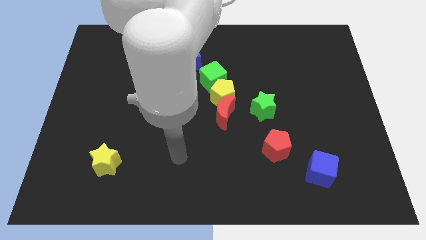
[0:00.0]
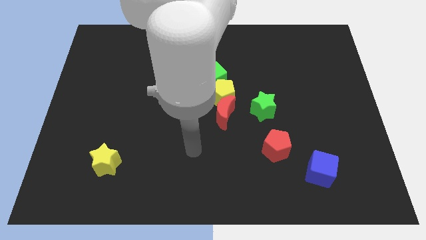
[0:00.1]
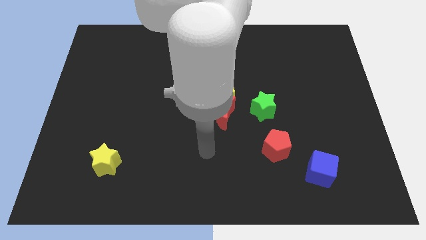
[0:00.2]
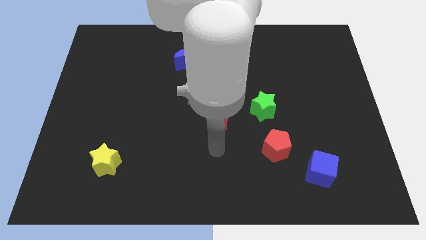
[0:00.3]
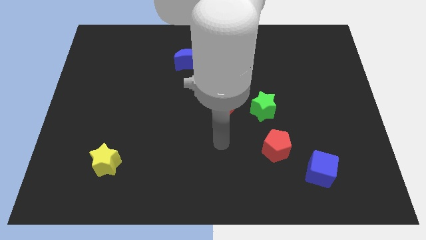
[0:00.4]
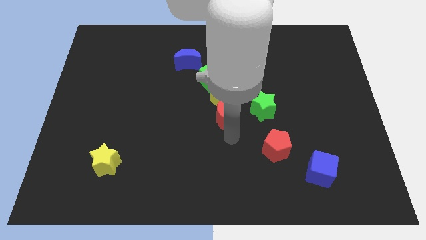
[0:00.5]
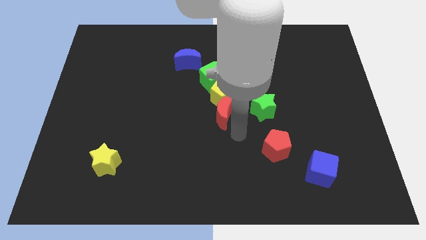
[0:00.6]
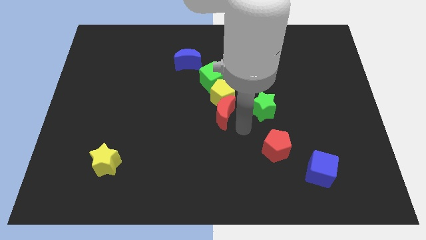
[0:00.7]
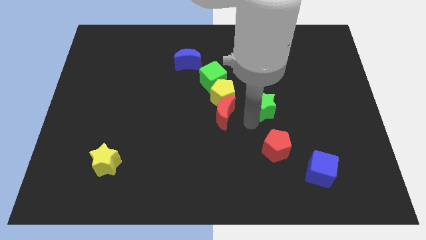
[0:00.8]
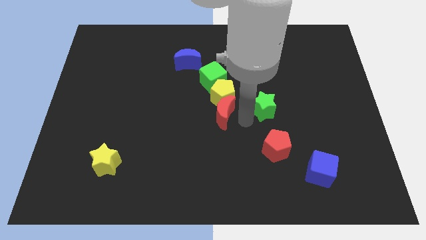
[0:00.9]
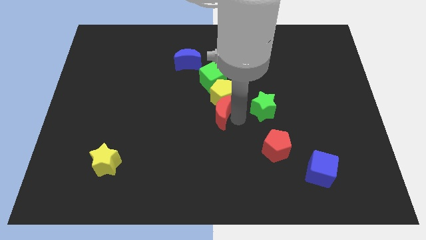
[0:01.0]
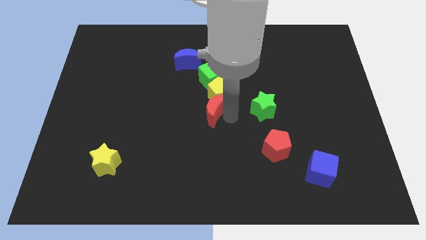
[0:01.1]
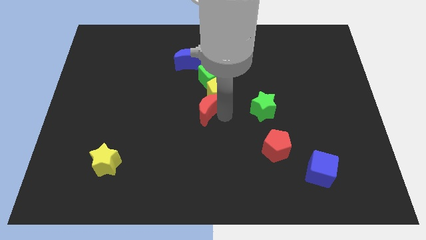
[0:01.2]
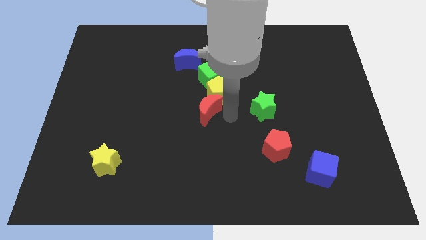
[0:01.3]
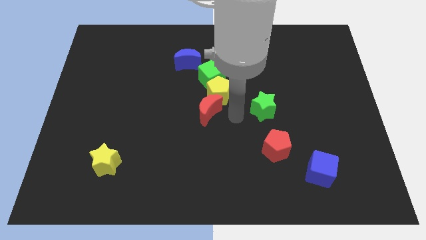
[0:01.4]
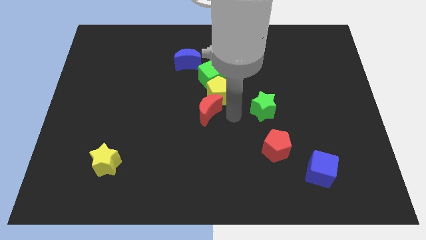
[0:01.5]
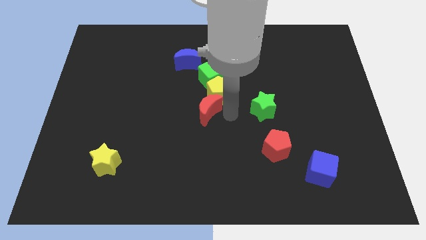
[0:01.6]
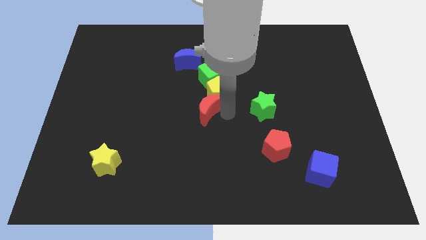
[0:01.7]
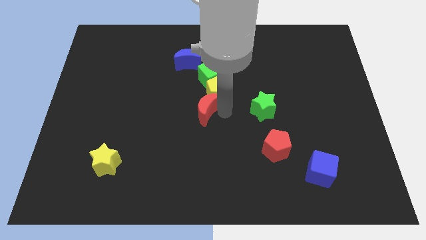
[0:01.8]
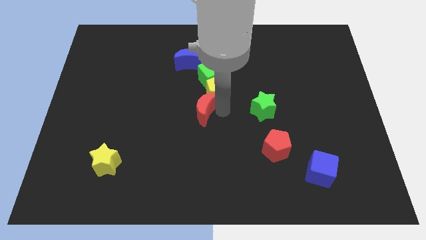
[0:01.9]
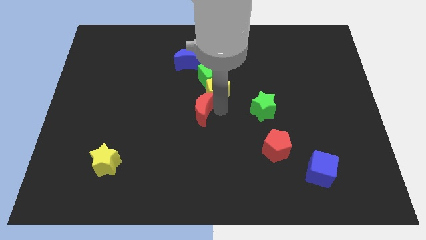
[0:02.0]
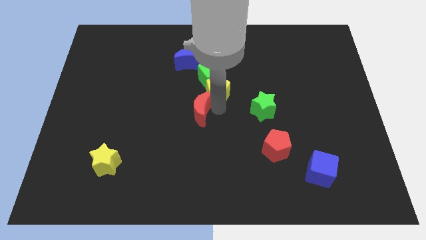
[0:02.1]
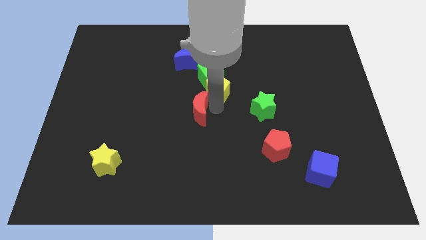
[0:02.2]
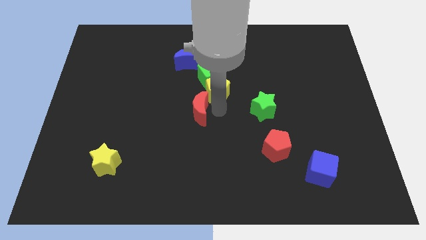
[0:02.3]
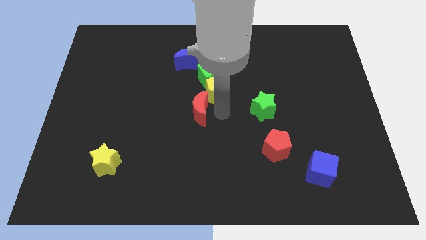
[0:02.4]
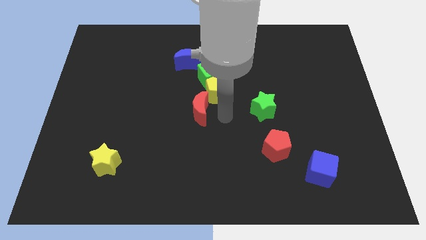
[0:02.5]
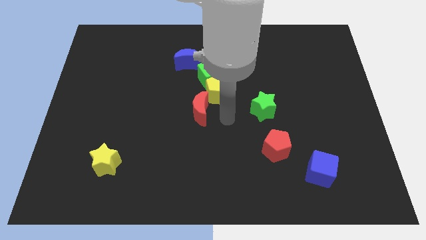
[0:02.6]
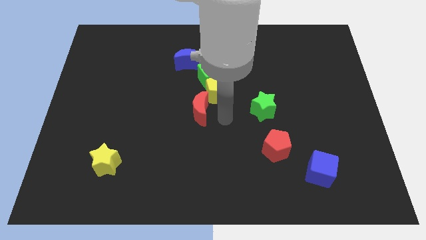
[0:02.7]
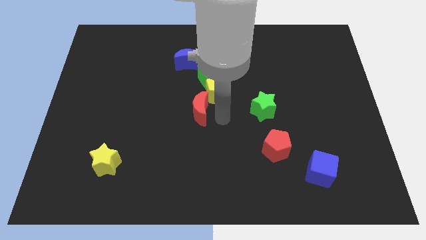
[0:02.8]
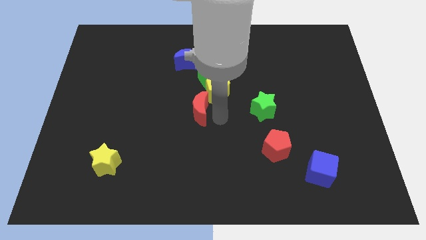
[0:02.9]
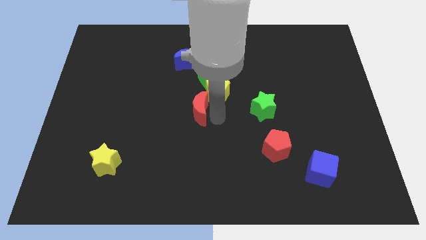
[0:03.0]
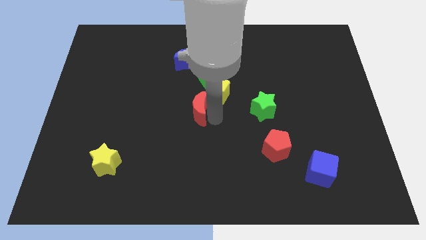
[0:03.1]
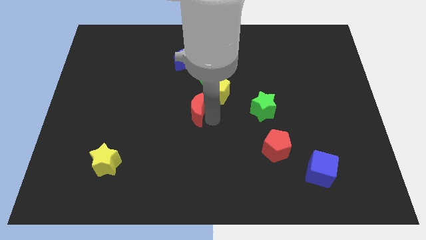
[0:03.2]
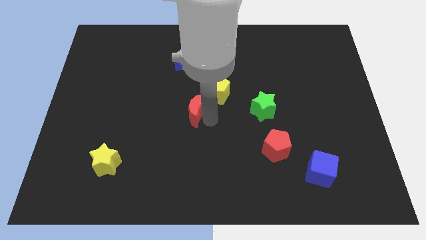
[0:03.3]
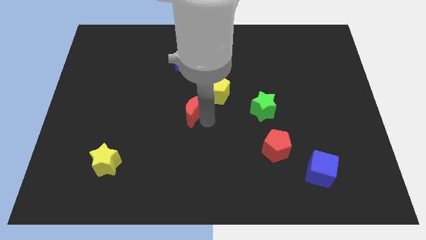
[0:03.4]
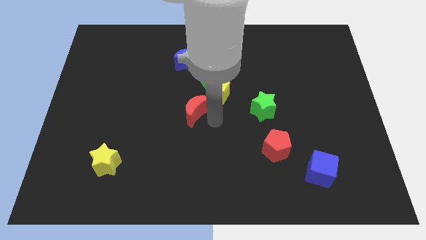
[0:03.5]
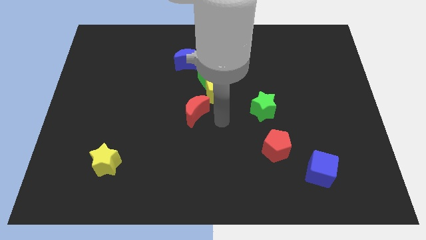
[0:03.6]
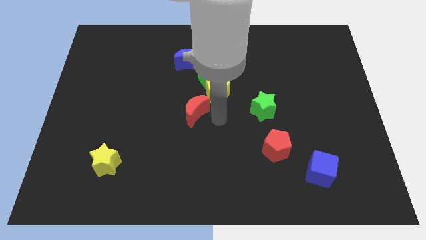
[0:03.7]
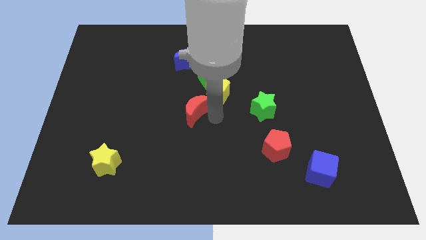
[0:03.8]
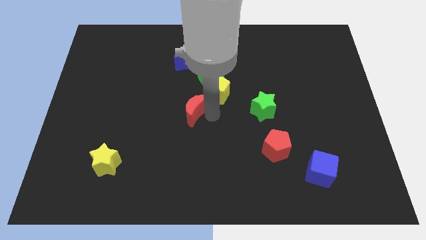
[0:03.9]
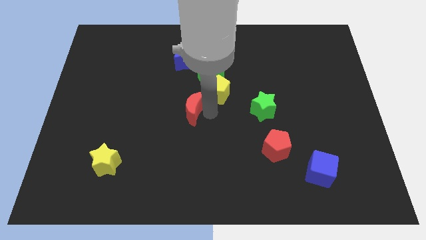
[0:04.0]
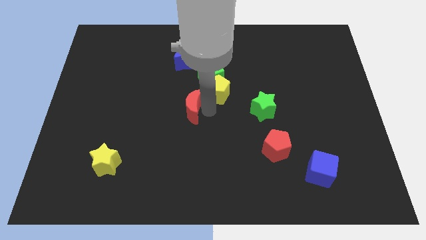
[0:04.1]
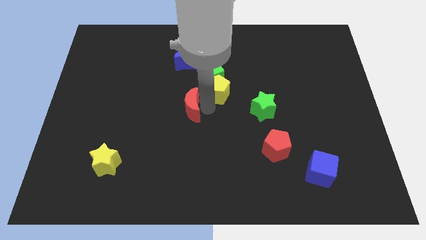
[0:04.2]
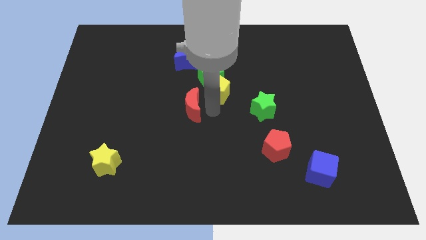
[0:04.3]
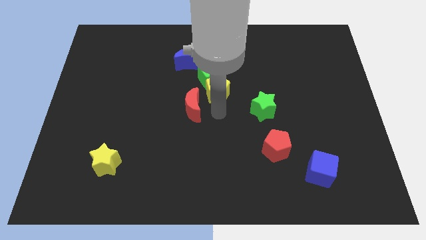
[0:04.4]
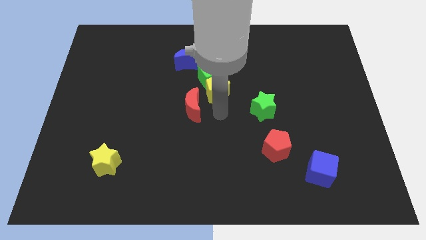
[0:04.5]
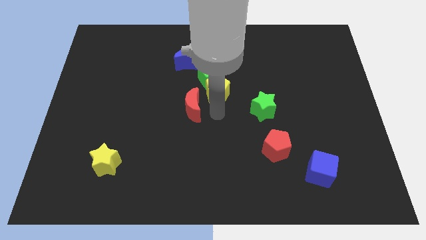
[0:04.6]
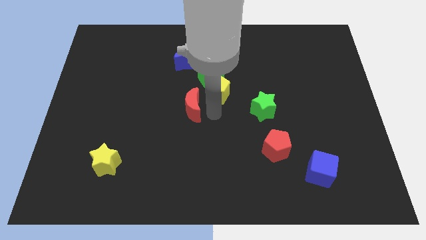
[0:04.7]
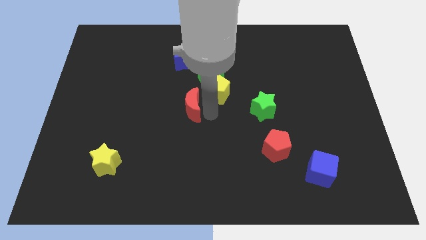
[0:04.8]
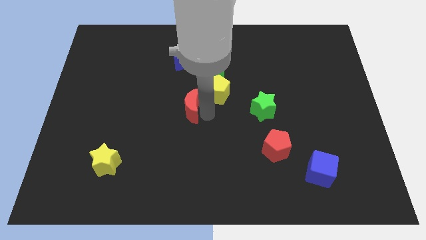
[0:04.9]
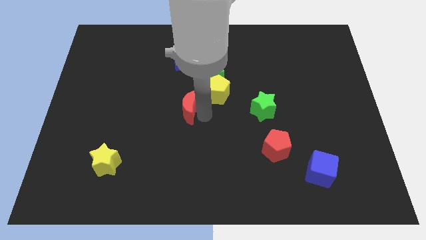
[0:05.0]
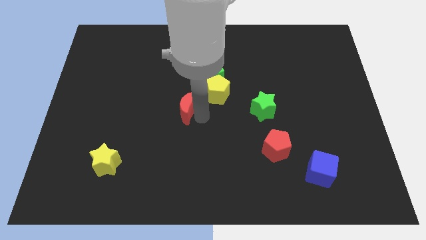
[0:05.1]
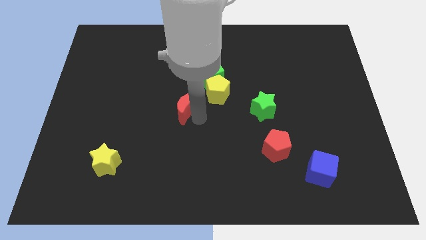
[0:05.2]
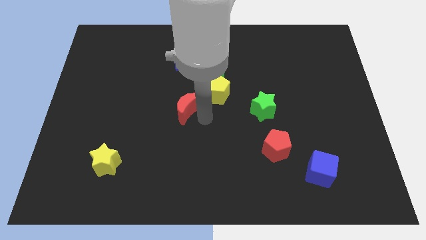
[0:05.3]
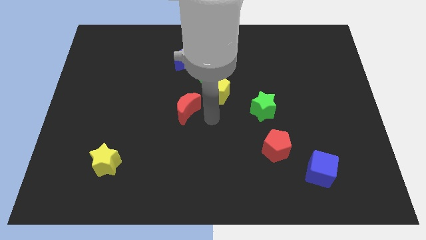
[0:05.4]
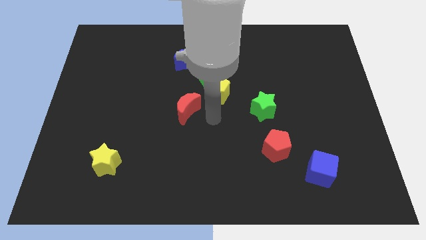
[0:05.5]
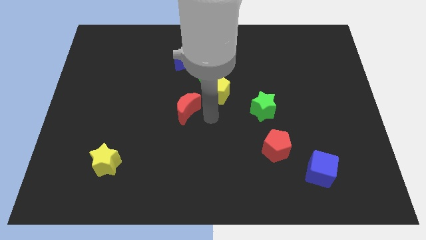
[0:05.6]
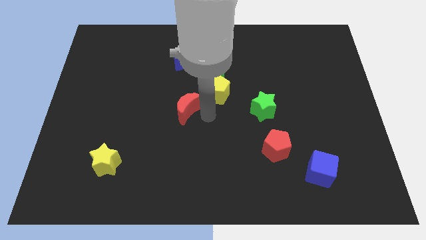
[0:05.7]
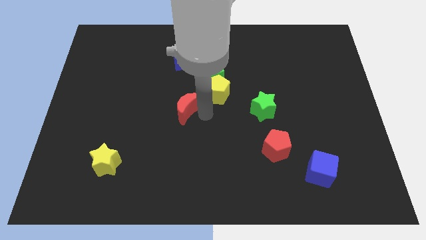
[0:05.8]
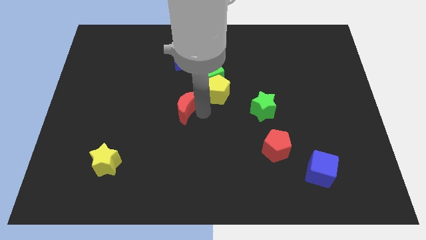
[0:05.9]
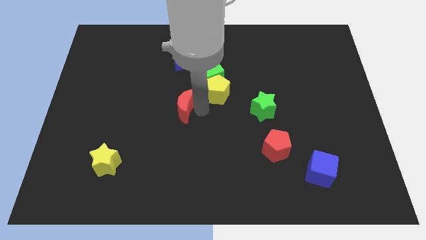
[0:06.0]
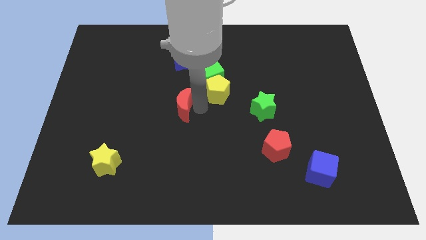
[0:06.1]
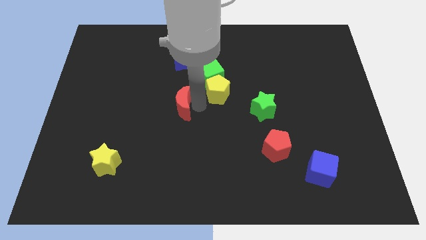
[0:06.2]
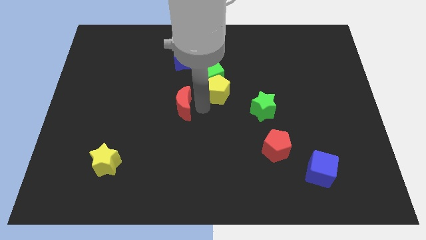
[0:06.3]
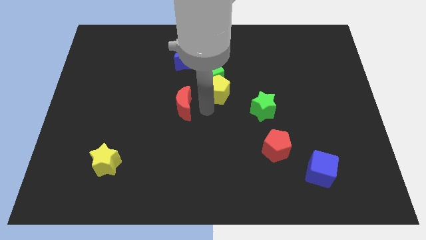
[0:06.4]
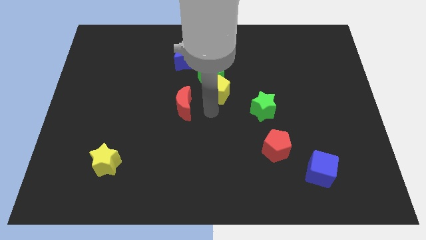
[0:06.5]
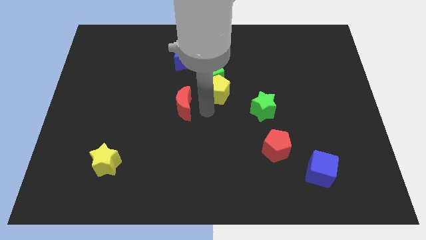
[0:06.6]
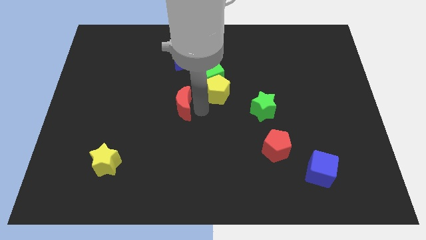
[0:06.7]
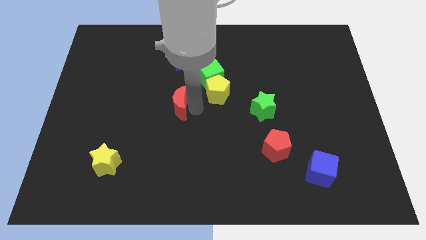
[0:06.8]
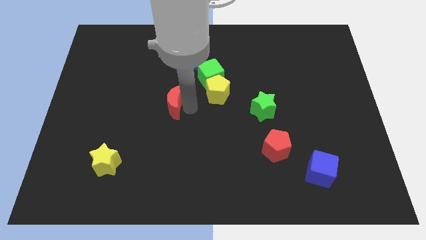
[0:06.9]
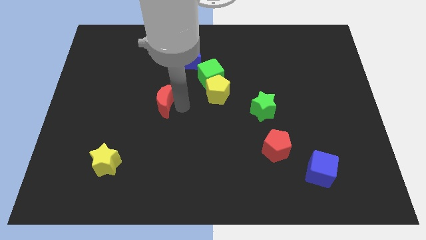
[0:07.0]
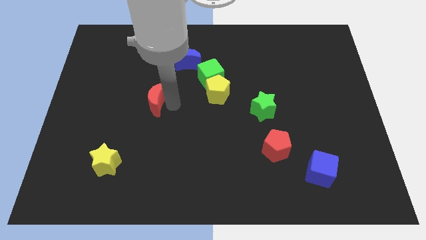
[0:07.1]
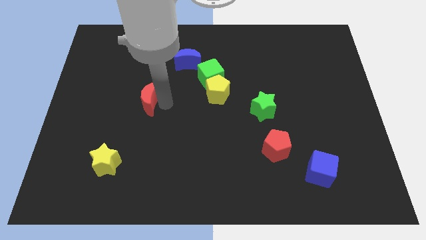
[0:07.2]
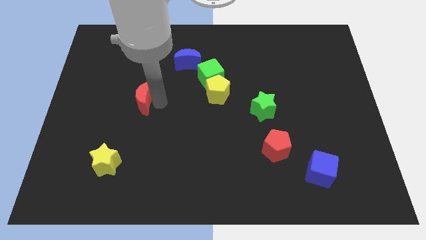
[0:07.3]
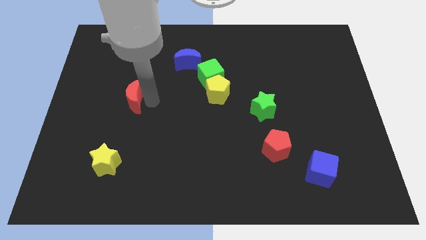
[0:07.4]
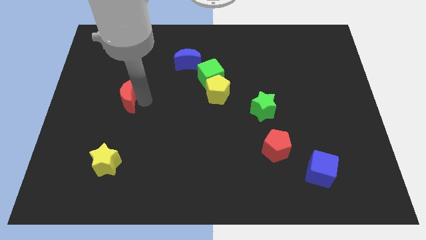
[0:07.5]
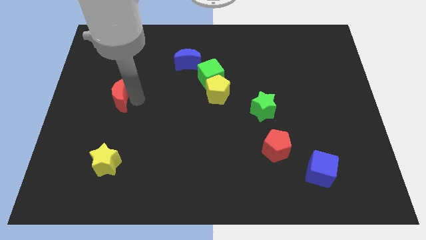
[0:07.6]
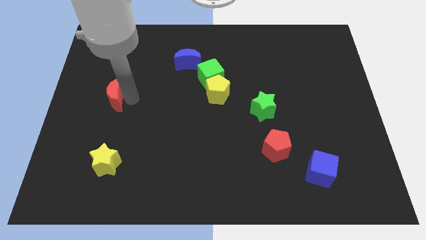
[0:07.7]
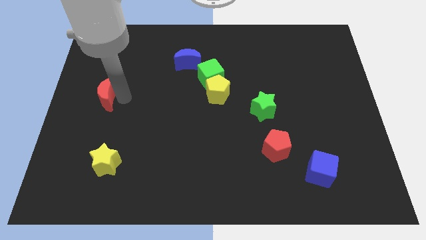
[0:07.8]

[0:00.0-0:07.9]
slide the red moon to the left side of the board
